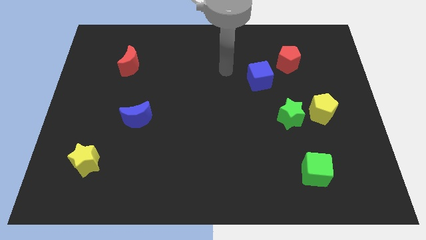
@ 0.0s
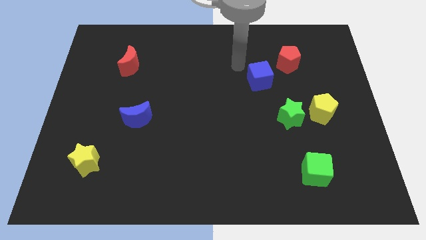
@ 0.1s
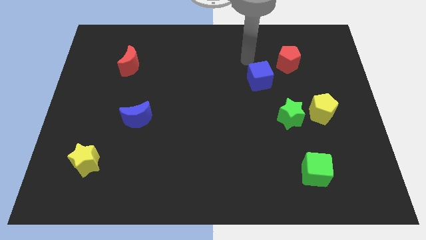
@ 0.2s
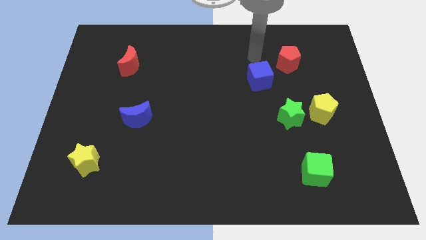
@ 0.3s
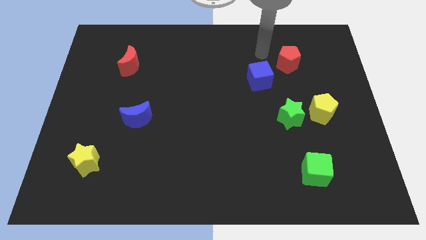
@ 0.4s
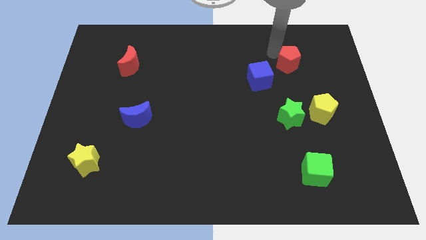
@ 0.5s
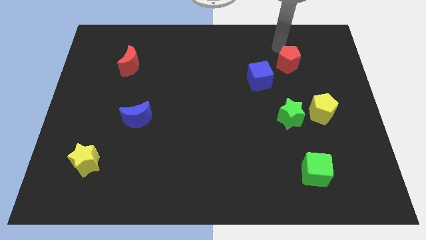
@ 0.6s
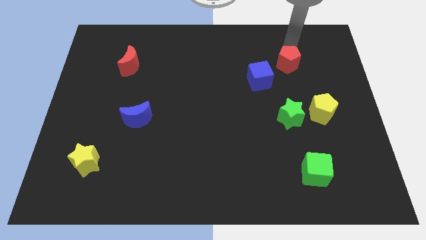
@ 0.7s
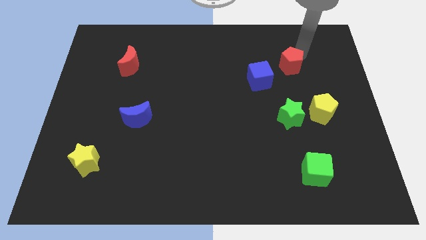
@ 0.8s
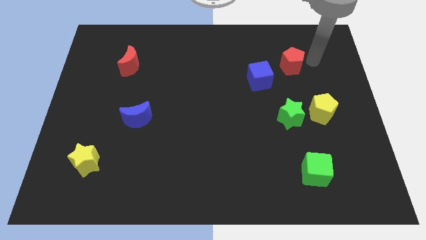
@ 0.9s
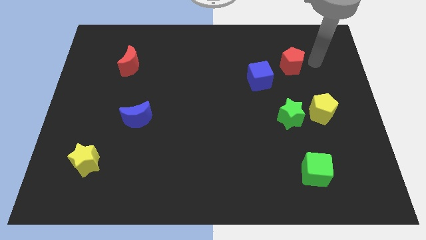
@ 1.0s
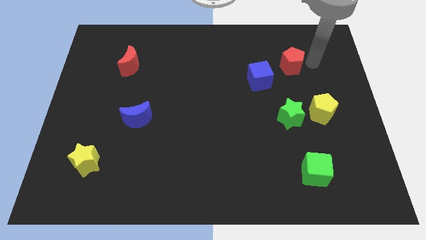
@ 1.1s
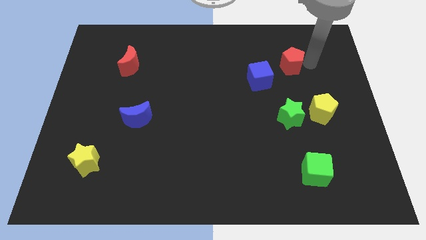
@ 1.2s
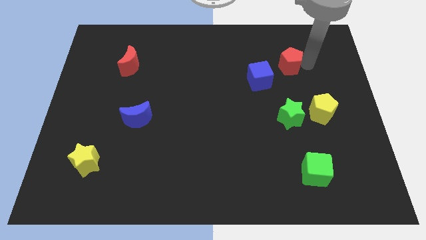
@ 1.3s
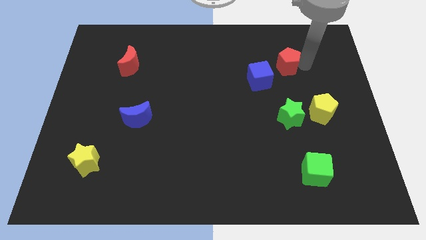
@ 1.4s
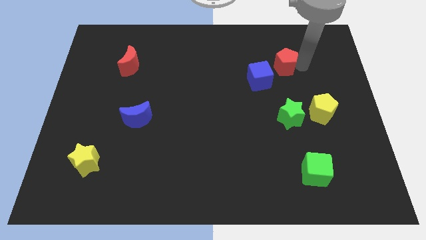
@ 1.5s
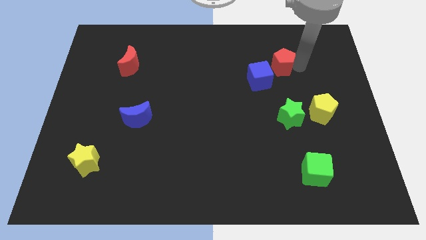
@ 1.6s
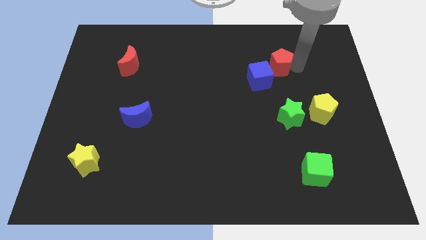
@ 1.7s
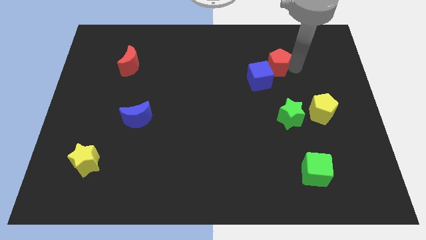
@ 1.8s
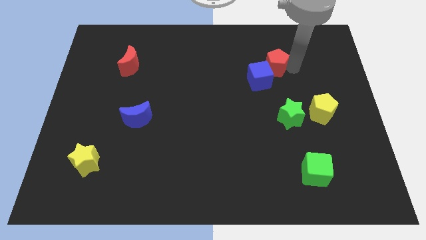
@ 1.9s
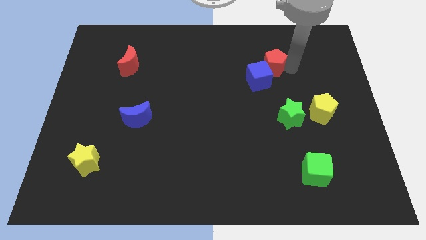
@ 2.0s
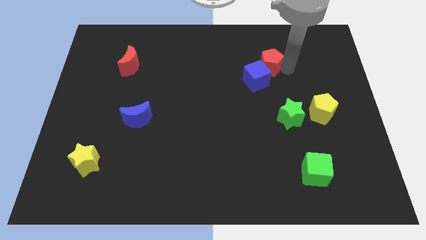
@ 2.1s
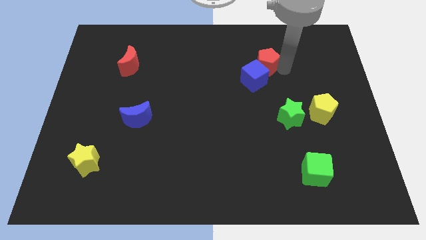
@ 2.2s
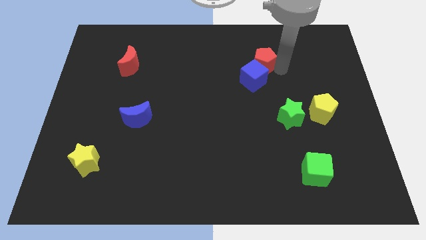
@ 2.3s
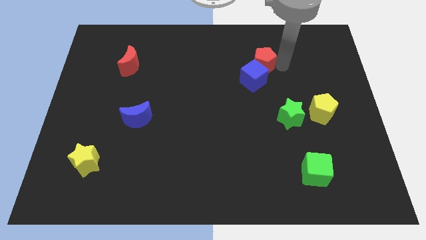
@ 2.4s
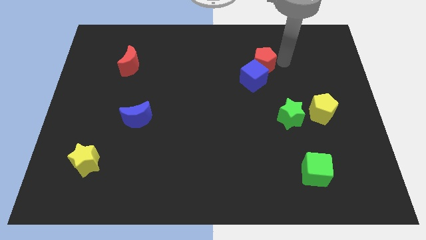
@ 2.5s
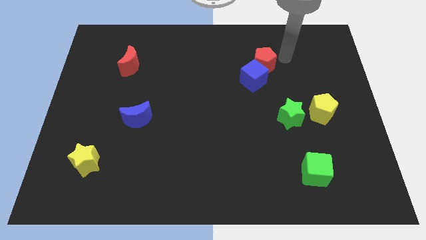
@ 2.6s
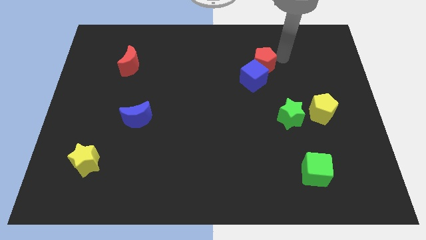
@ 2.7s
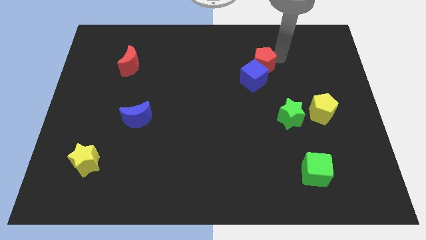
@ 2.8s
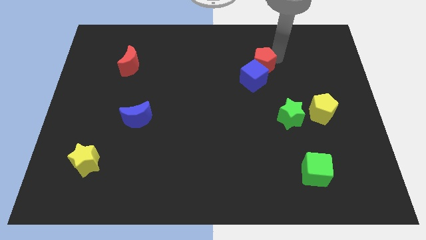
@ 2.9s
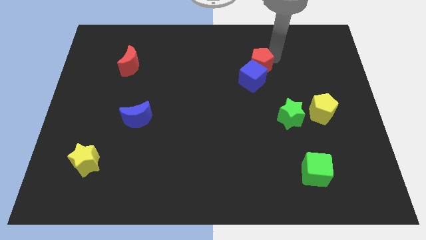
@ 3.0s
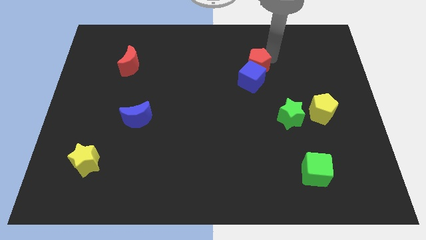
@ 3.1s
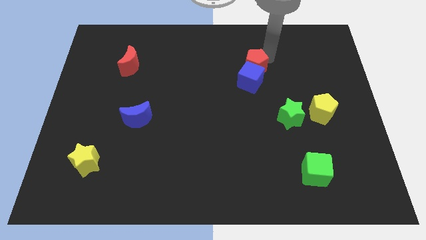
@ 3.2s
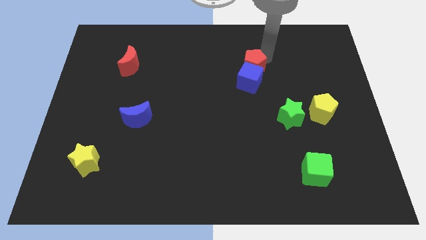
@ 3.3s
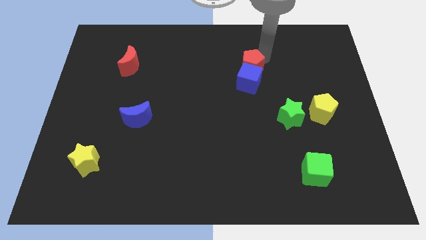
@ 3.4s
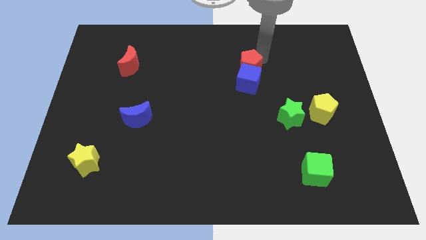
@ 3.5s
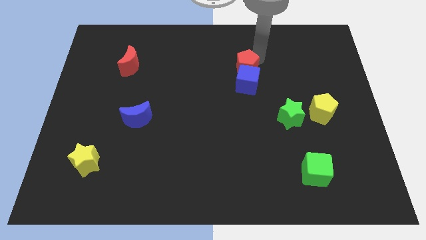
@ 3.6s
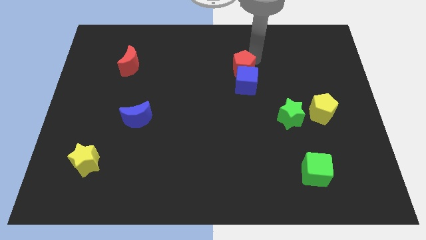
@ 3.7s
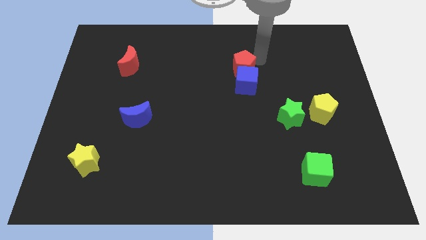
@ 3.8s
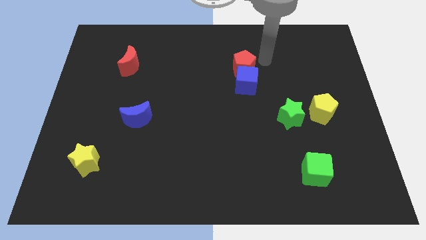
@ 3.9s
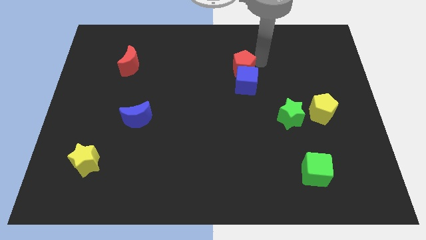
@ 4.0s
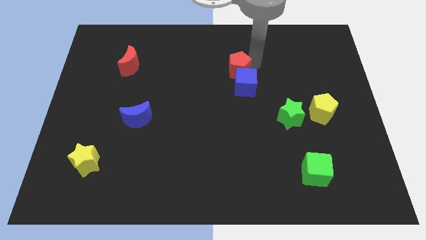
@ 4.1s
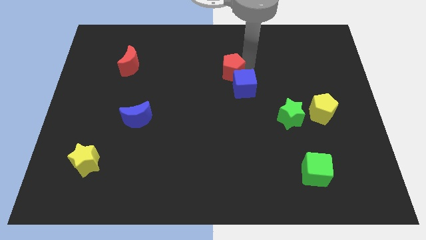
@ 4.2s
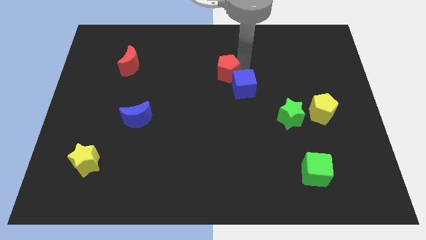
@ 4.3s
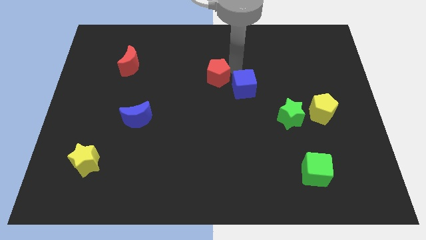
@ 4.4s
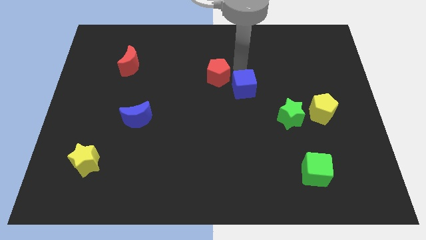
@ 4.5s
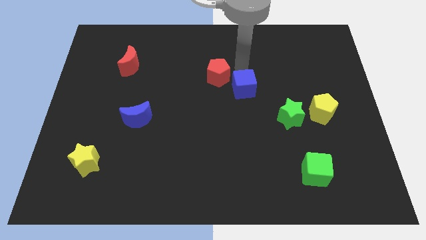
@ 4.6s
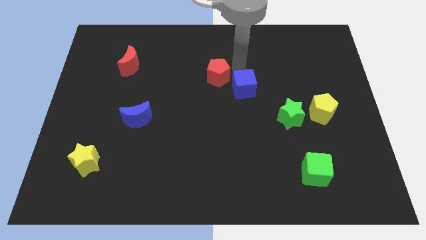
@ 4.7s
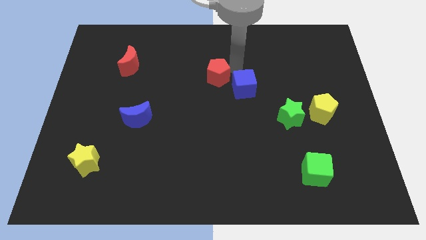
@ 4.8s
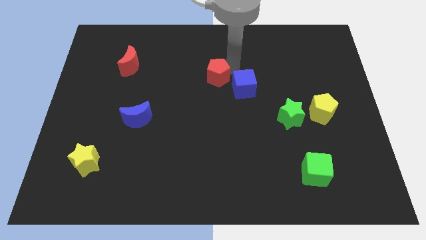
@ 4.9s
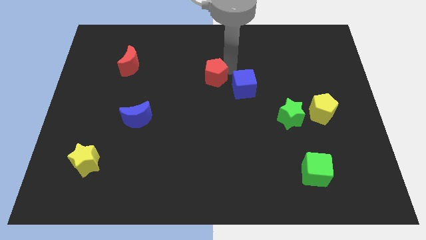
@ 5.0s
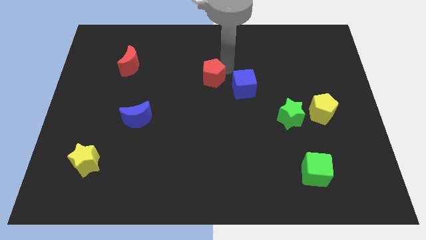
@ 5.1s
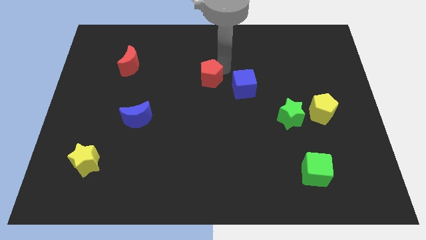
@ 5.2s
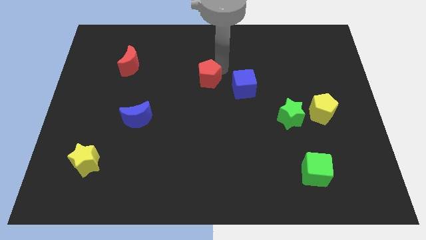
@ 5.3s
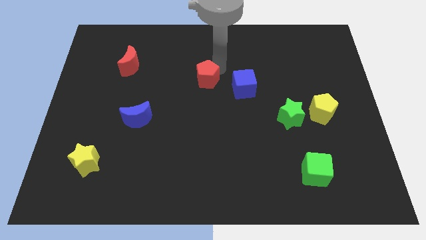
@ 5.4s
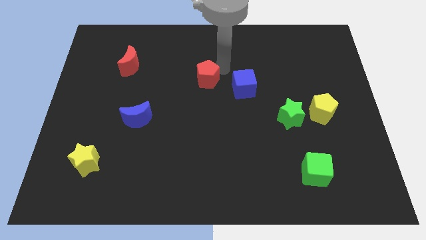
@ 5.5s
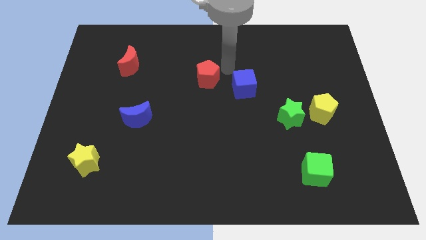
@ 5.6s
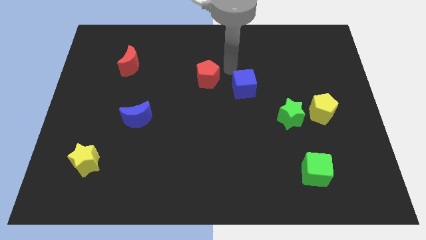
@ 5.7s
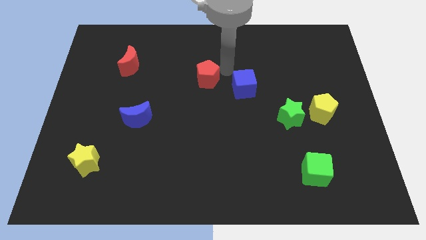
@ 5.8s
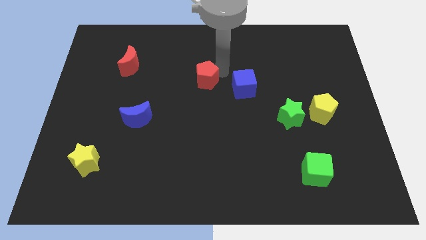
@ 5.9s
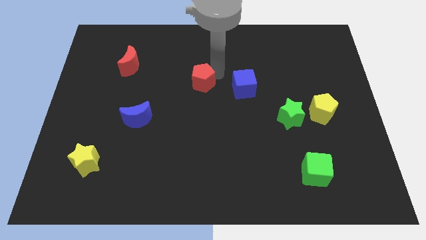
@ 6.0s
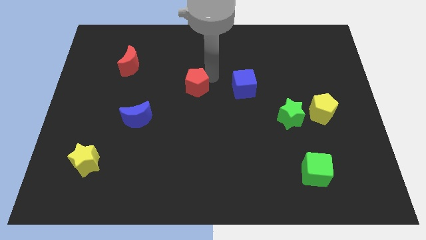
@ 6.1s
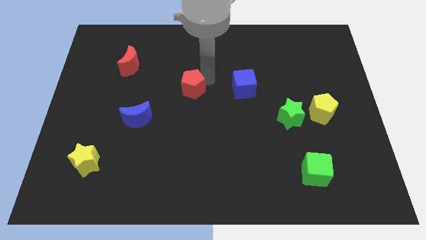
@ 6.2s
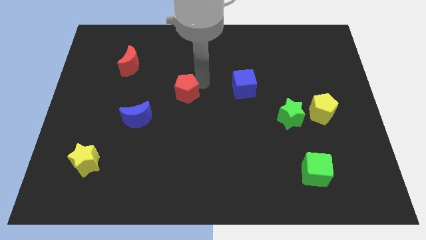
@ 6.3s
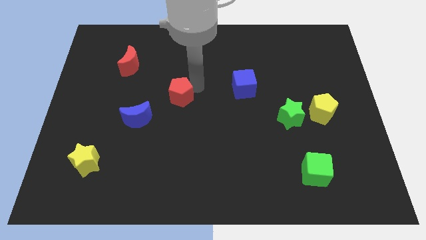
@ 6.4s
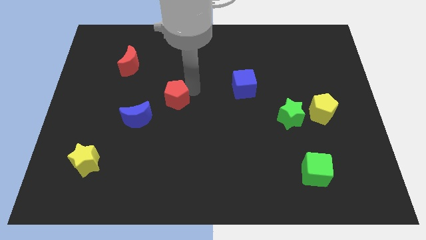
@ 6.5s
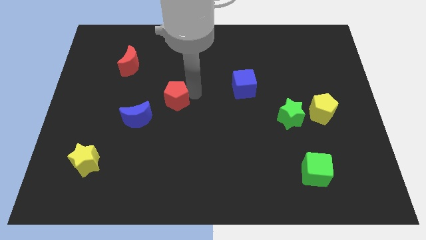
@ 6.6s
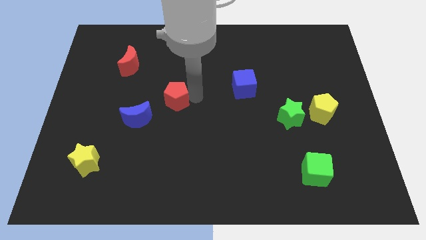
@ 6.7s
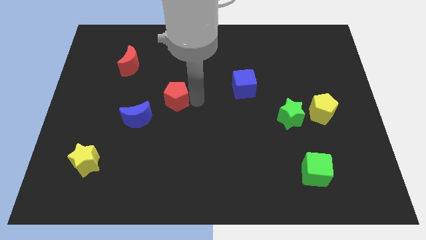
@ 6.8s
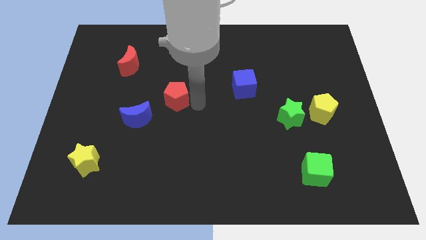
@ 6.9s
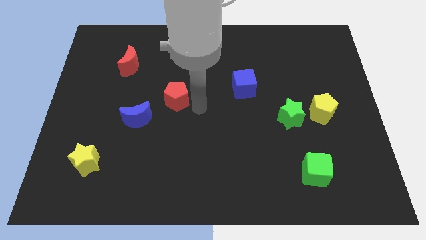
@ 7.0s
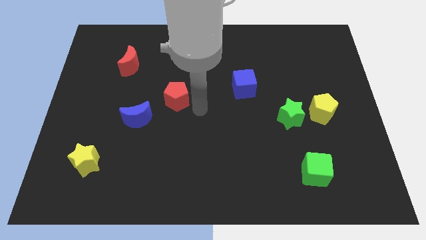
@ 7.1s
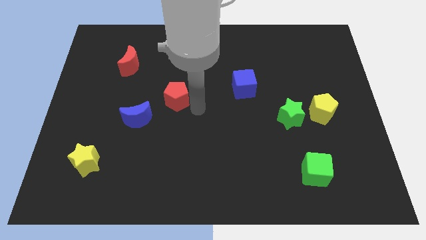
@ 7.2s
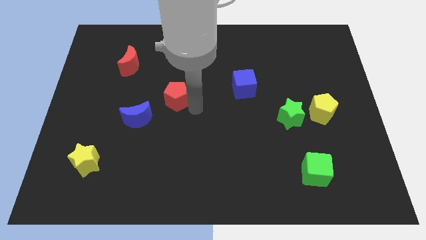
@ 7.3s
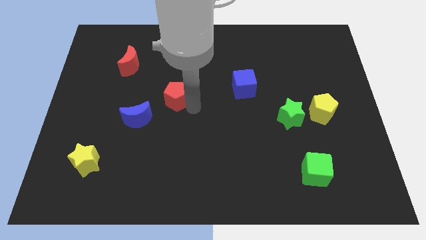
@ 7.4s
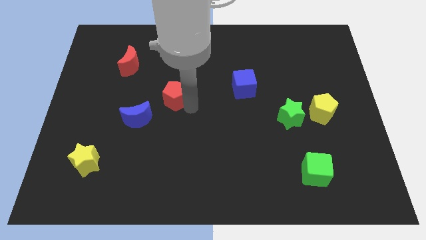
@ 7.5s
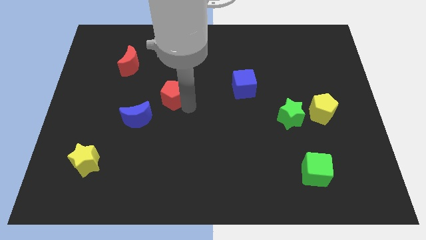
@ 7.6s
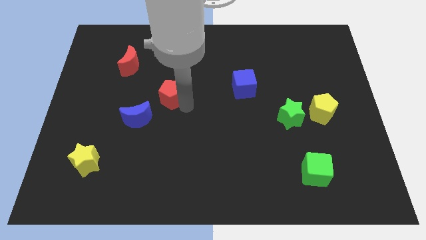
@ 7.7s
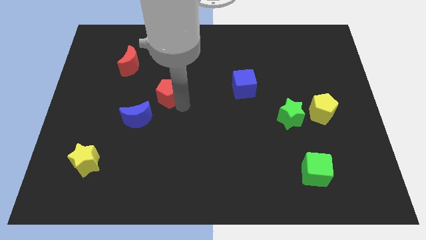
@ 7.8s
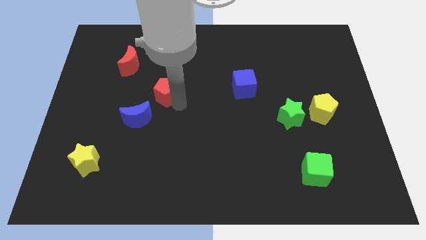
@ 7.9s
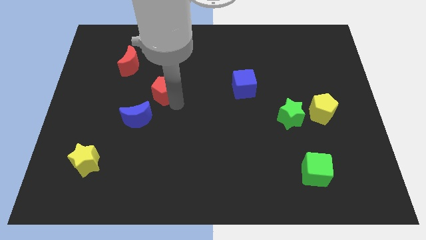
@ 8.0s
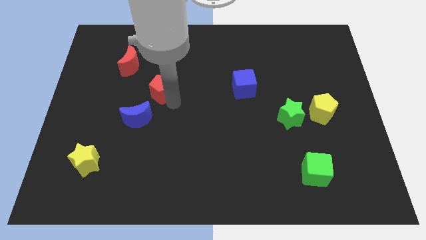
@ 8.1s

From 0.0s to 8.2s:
put the red pentagon to the top of the blue moon
